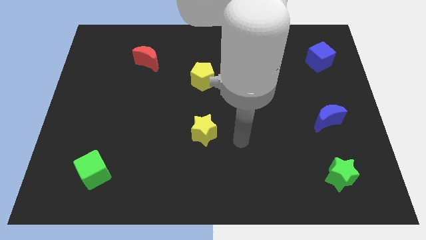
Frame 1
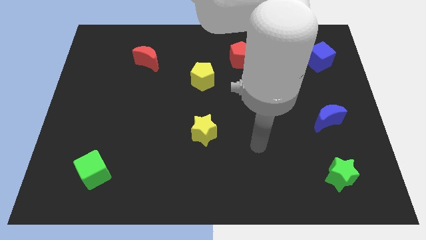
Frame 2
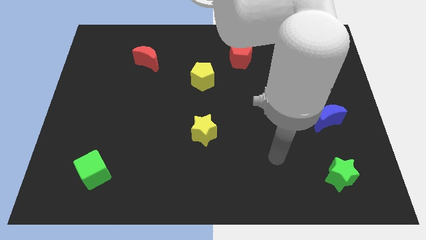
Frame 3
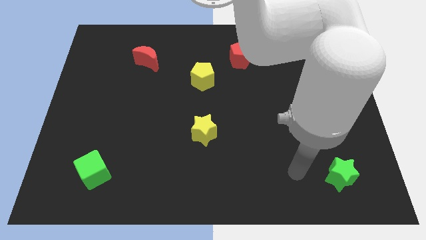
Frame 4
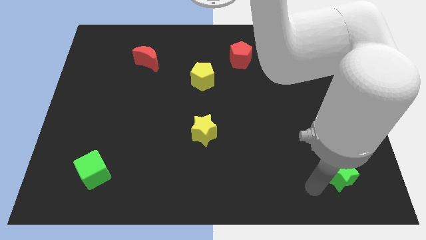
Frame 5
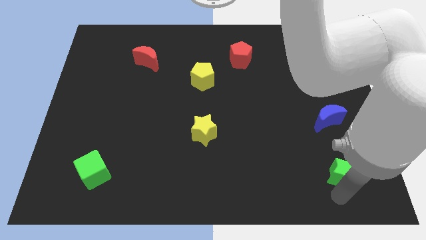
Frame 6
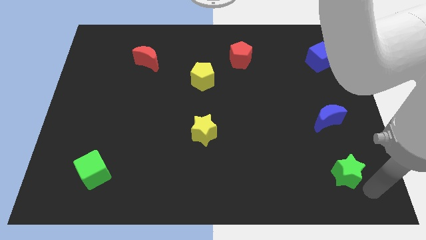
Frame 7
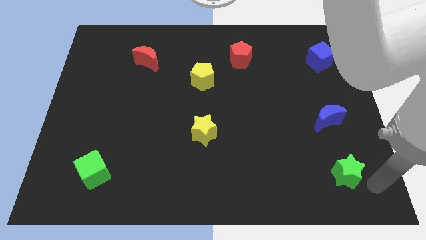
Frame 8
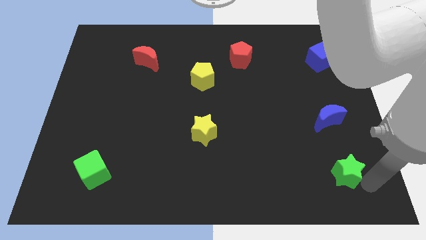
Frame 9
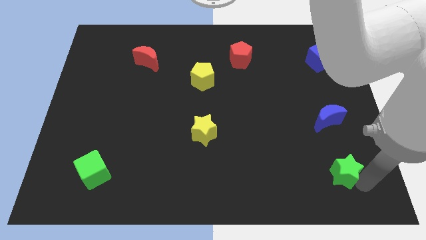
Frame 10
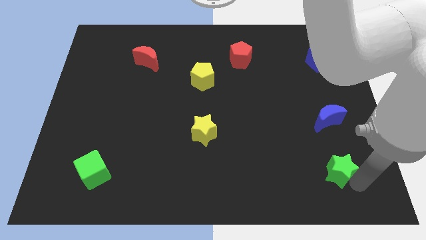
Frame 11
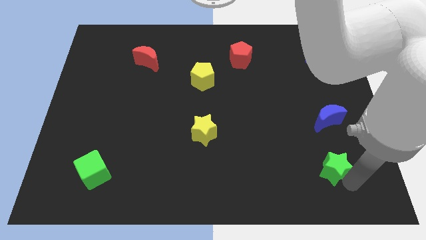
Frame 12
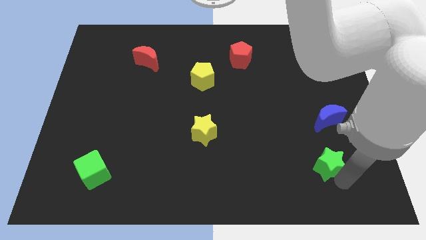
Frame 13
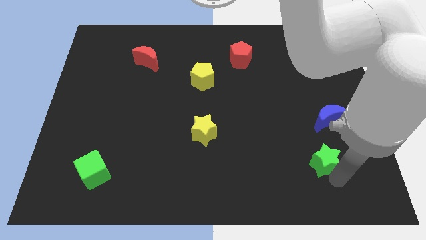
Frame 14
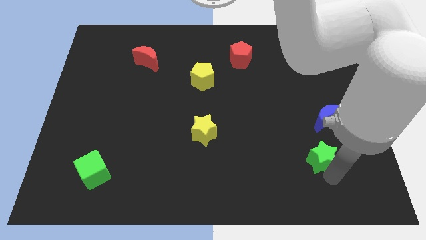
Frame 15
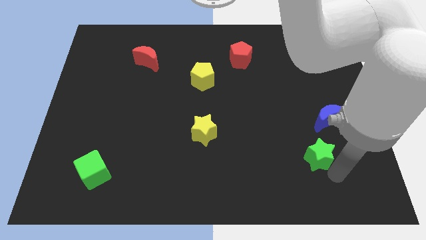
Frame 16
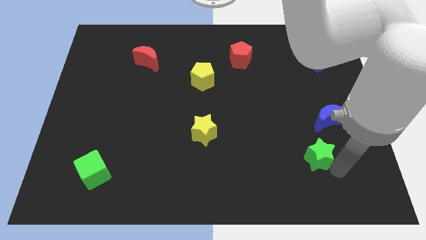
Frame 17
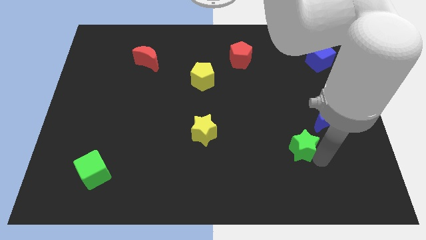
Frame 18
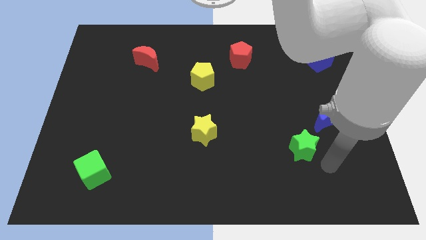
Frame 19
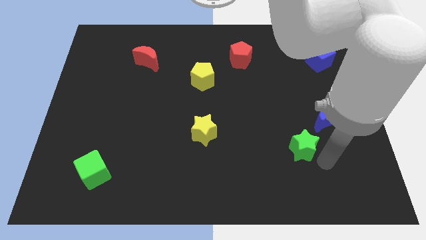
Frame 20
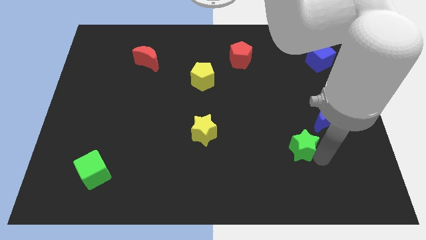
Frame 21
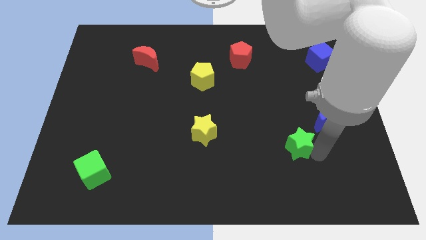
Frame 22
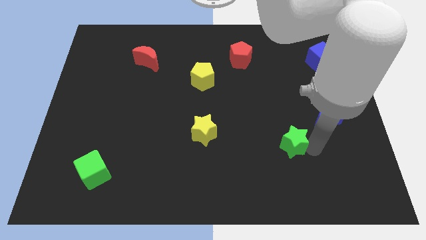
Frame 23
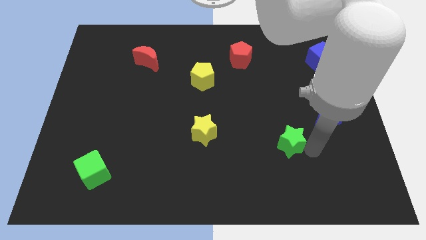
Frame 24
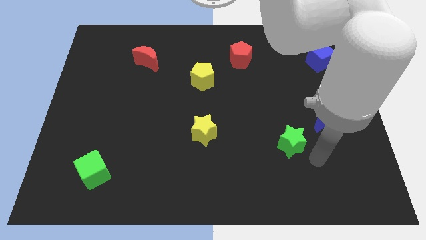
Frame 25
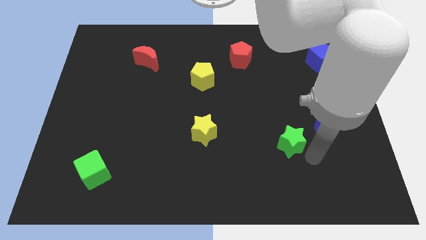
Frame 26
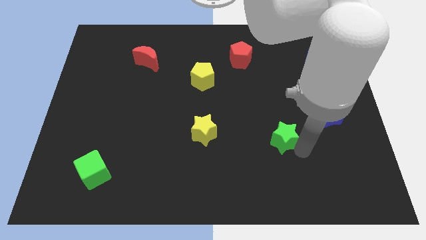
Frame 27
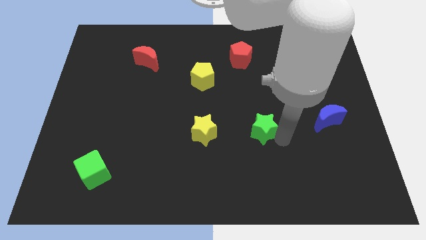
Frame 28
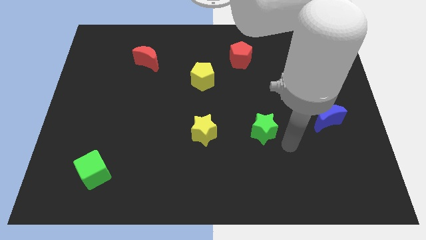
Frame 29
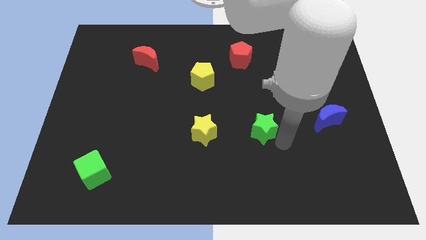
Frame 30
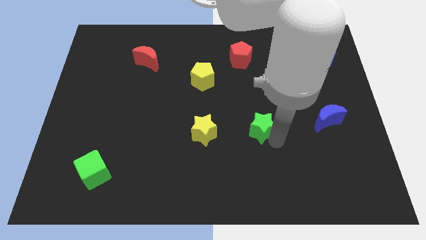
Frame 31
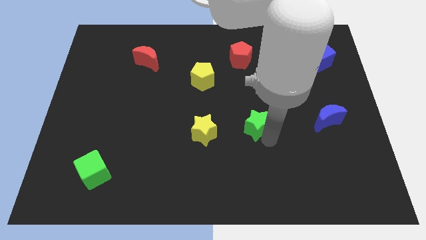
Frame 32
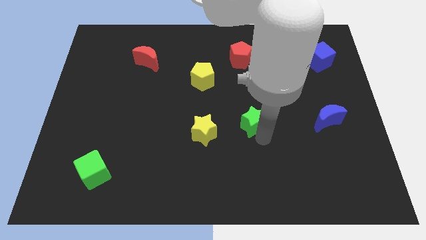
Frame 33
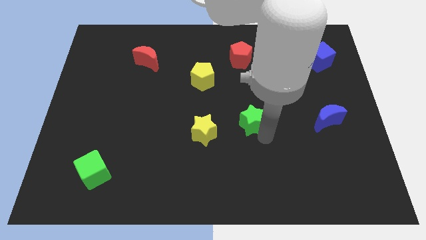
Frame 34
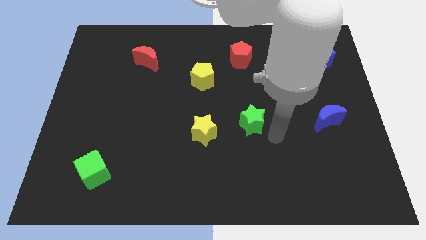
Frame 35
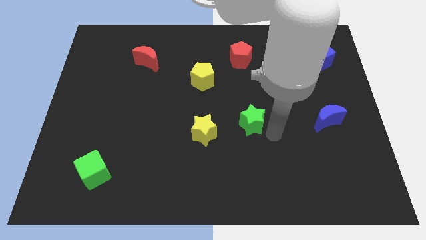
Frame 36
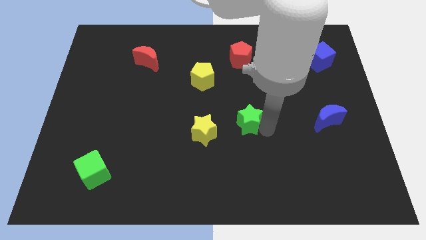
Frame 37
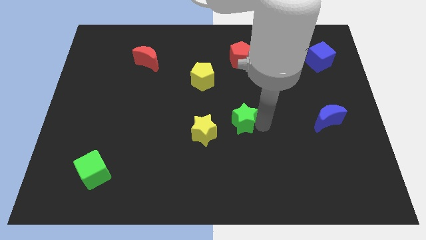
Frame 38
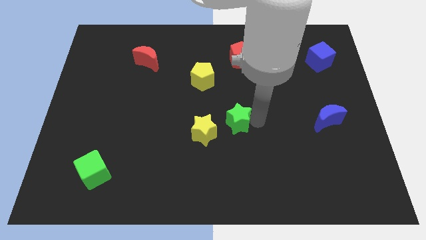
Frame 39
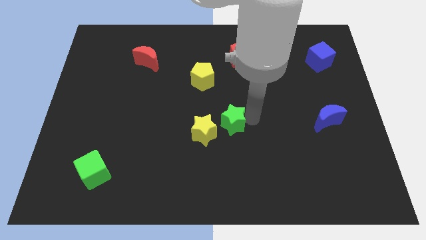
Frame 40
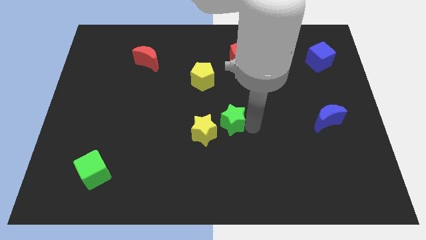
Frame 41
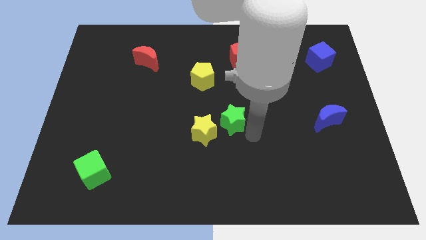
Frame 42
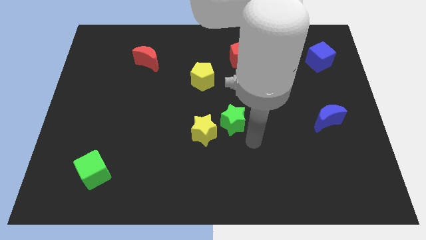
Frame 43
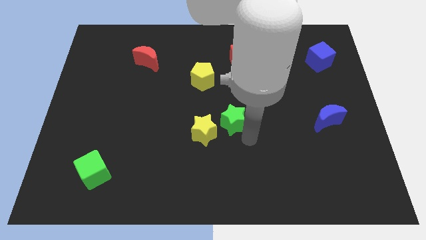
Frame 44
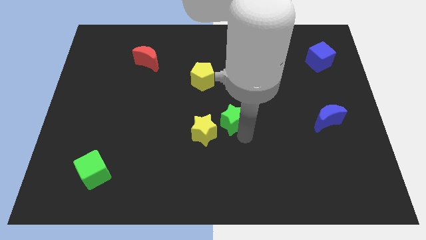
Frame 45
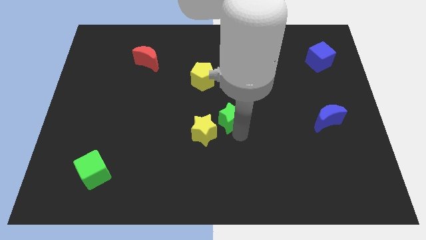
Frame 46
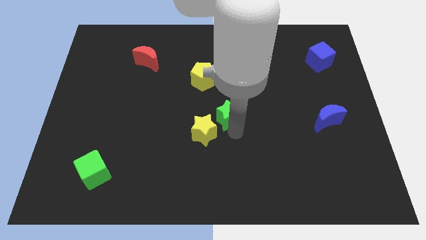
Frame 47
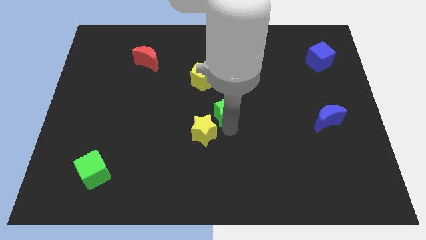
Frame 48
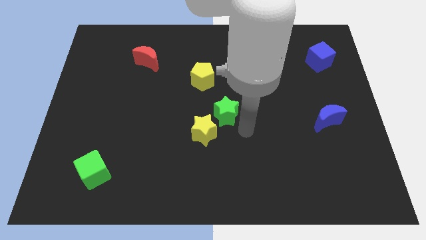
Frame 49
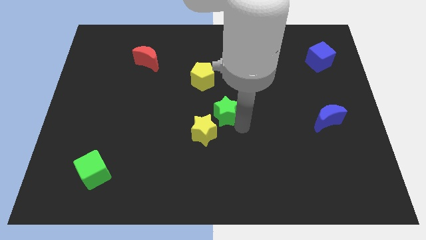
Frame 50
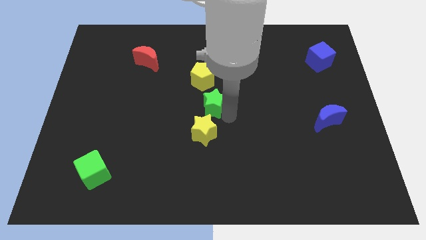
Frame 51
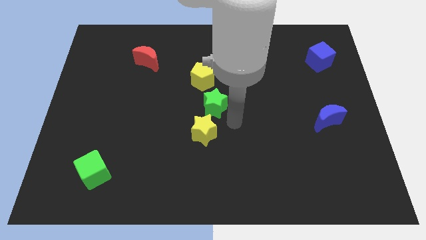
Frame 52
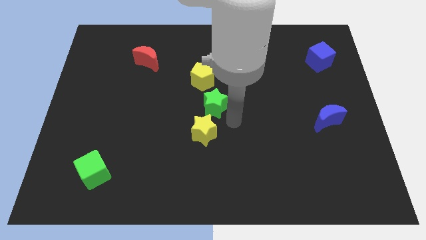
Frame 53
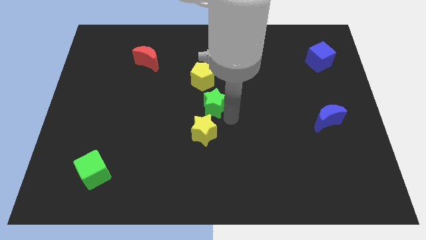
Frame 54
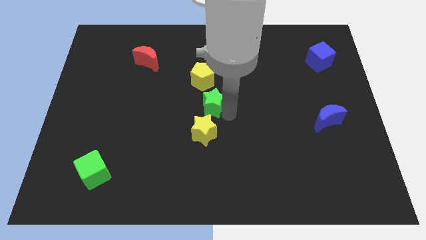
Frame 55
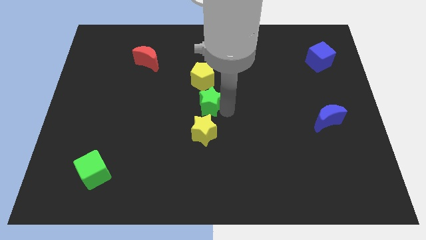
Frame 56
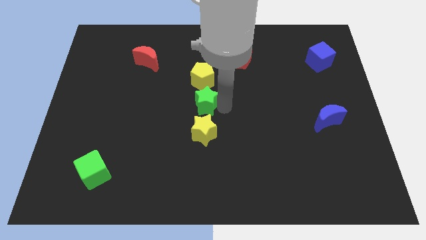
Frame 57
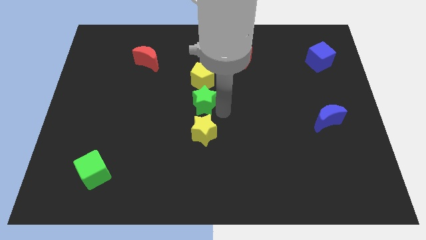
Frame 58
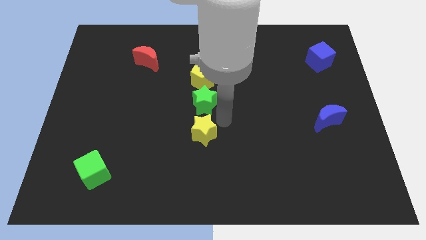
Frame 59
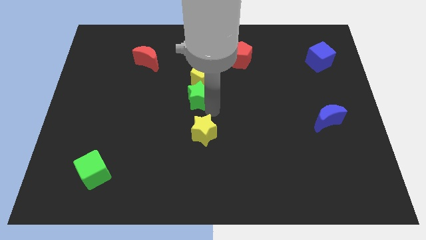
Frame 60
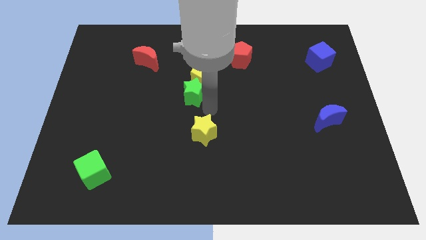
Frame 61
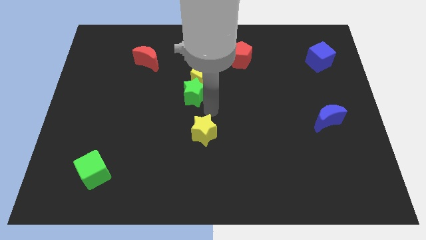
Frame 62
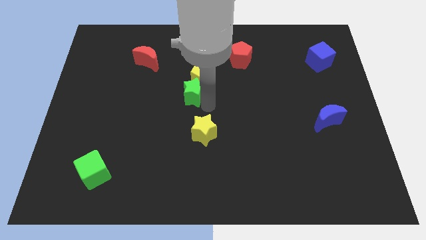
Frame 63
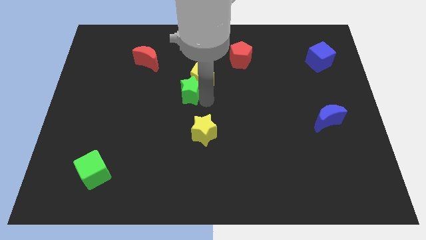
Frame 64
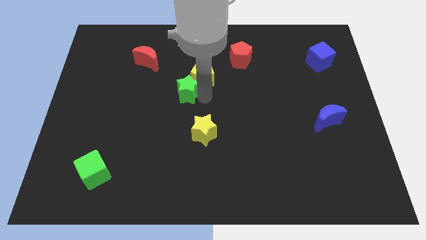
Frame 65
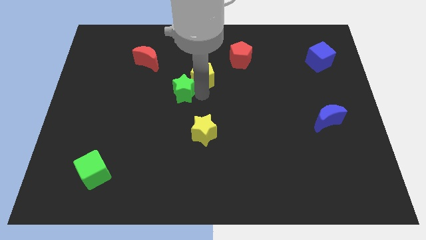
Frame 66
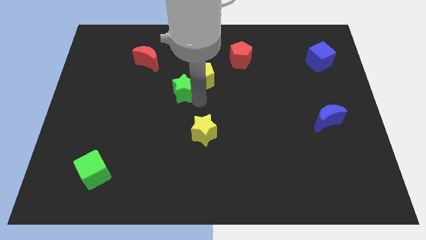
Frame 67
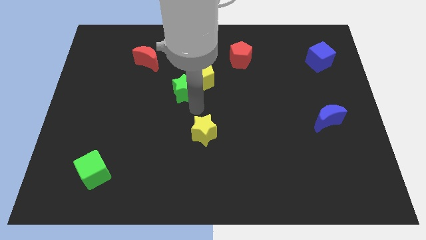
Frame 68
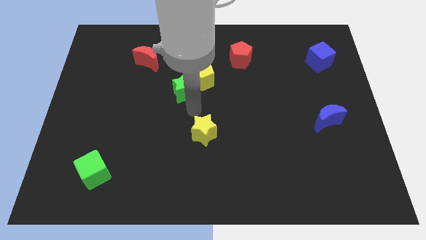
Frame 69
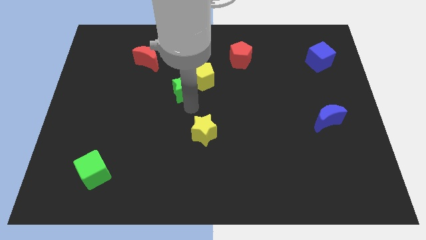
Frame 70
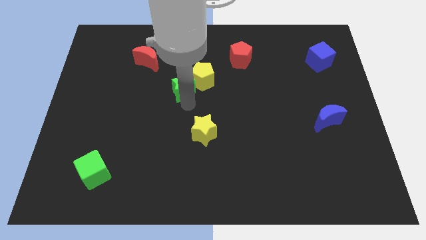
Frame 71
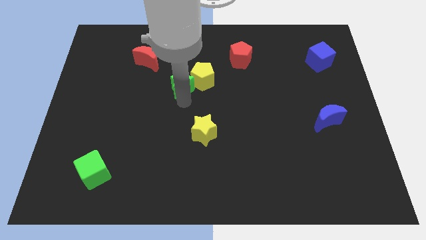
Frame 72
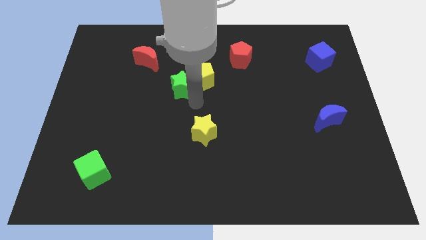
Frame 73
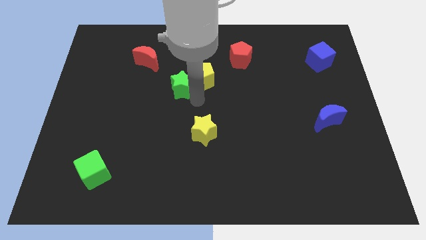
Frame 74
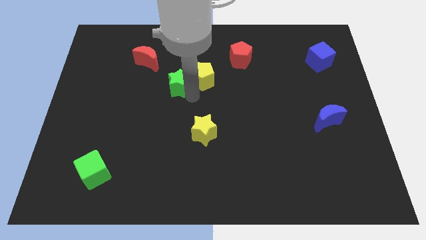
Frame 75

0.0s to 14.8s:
move the green star to the bottom right of the red moon
